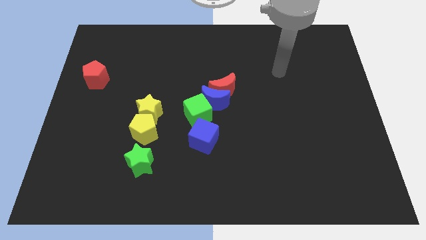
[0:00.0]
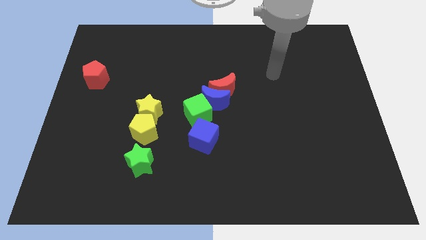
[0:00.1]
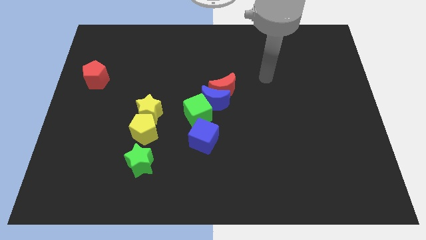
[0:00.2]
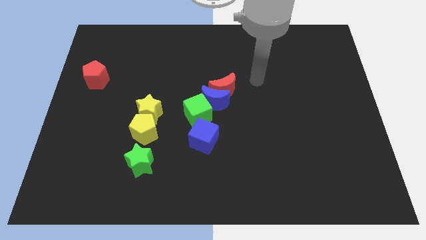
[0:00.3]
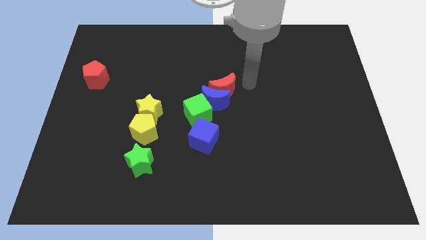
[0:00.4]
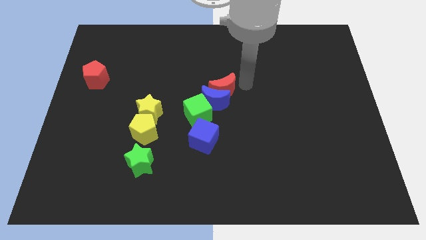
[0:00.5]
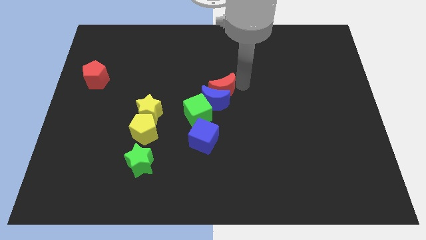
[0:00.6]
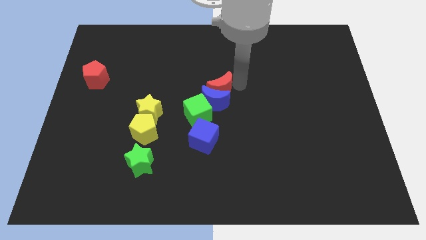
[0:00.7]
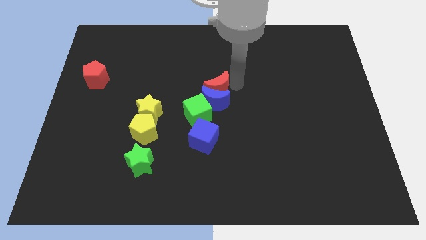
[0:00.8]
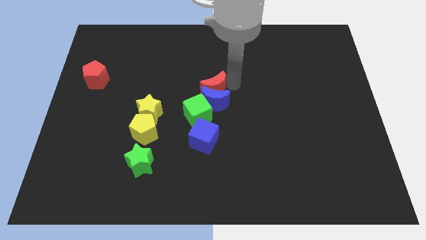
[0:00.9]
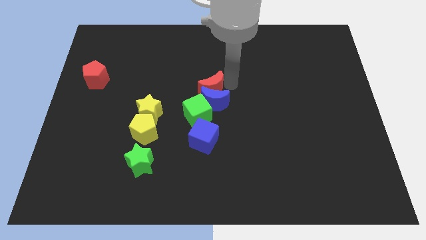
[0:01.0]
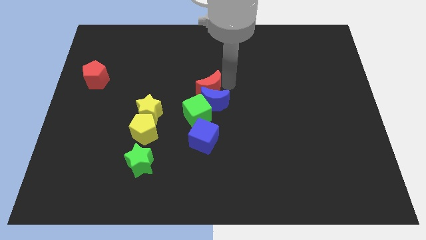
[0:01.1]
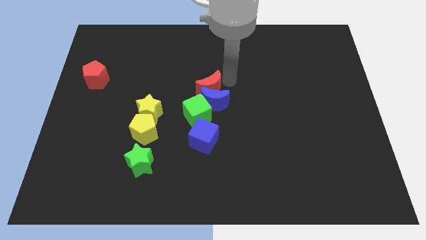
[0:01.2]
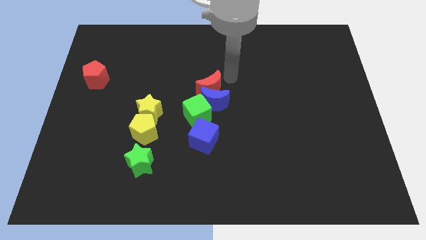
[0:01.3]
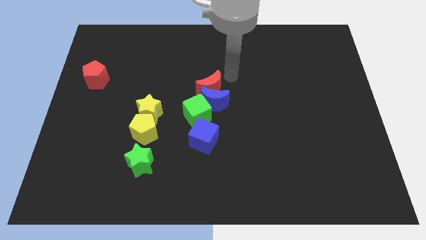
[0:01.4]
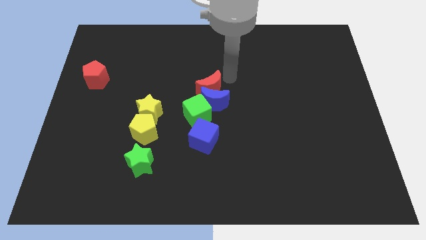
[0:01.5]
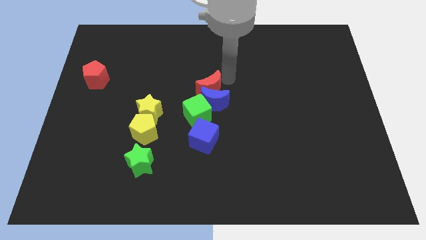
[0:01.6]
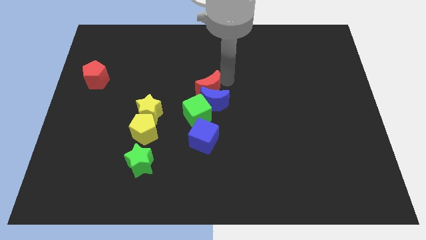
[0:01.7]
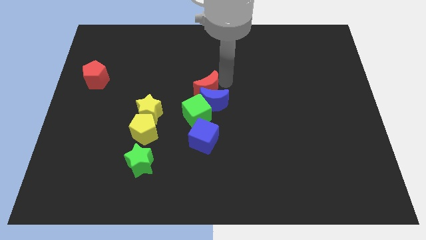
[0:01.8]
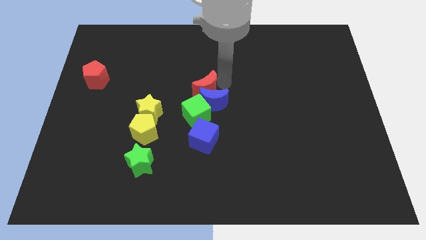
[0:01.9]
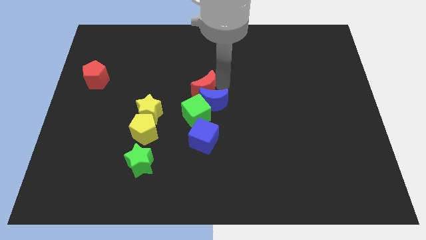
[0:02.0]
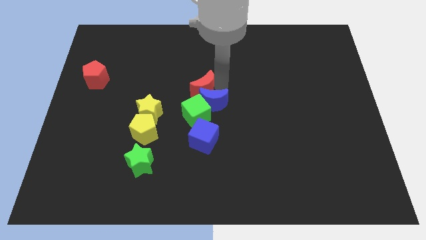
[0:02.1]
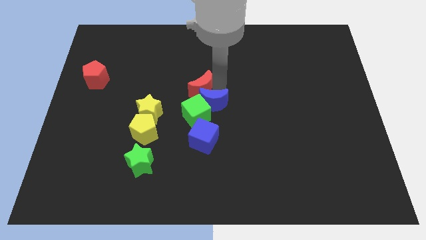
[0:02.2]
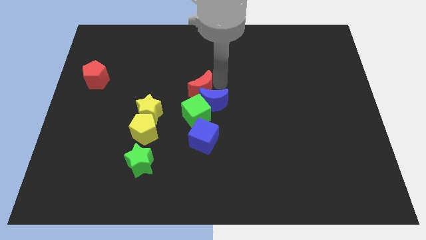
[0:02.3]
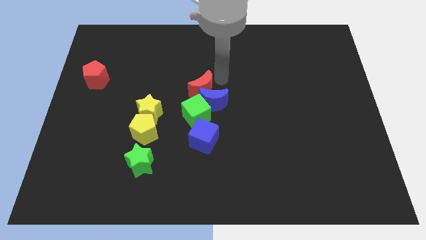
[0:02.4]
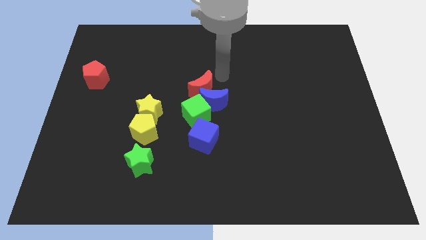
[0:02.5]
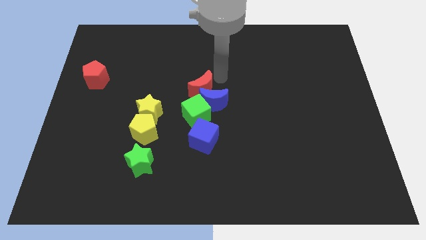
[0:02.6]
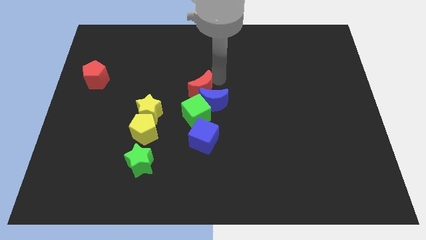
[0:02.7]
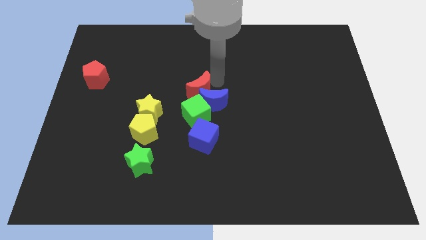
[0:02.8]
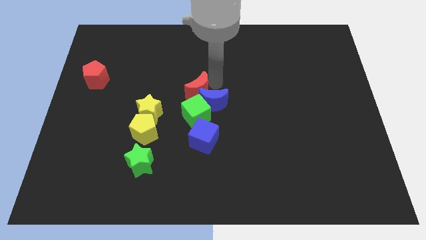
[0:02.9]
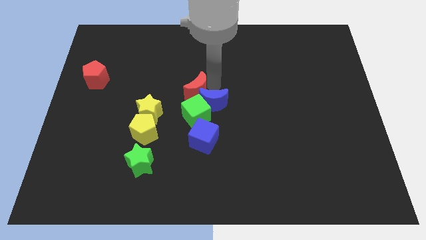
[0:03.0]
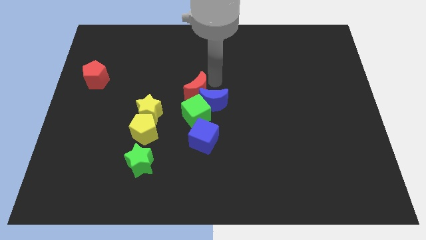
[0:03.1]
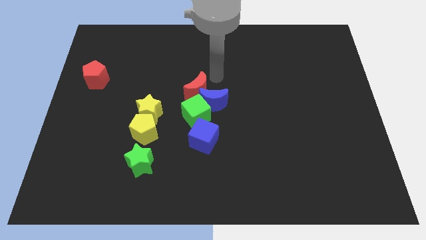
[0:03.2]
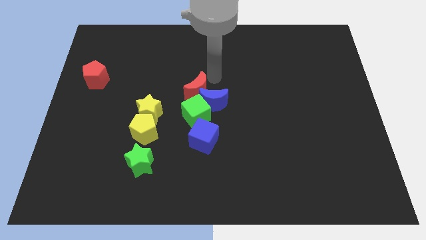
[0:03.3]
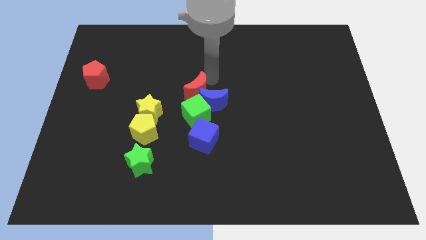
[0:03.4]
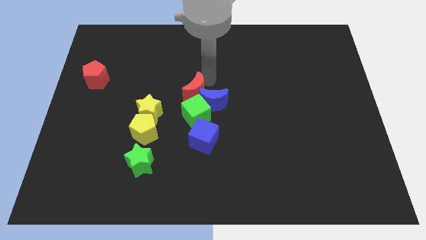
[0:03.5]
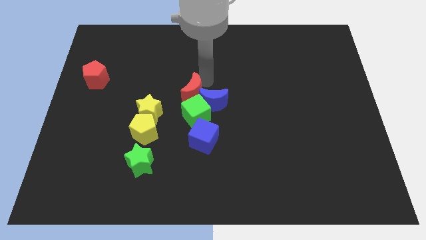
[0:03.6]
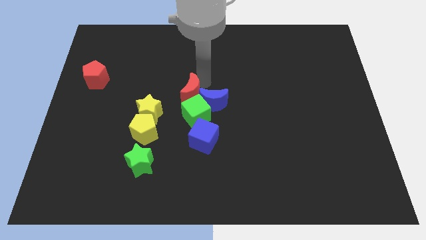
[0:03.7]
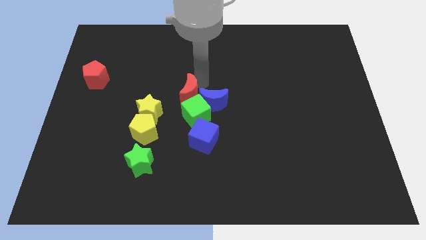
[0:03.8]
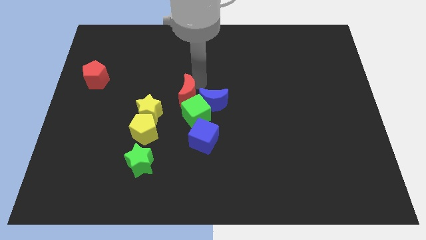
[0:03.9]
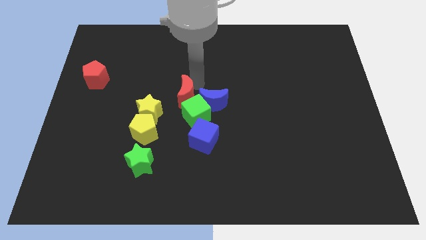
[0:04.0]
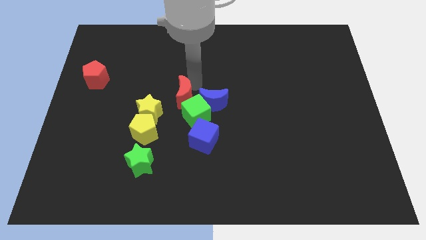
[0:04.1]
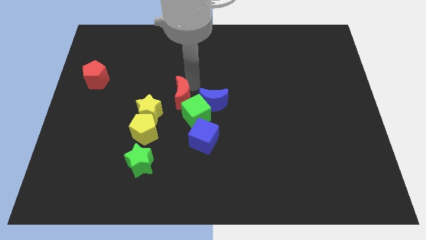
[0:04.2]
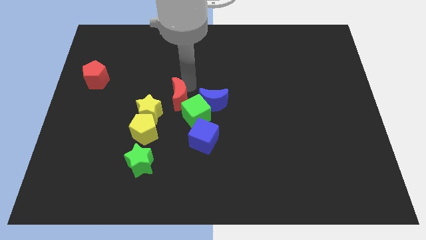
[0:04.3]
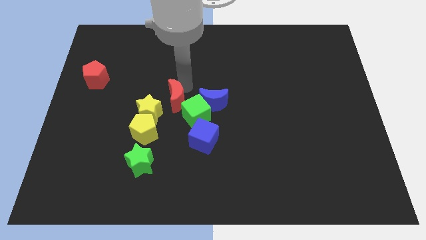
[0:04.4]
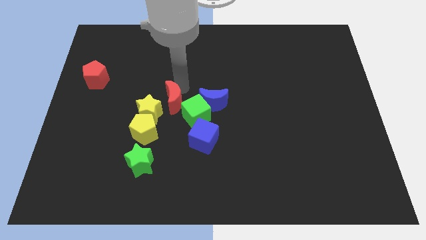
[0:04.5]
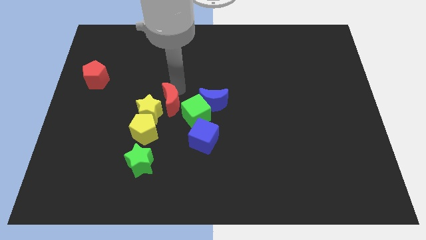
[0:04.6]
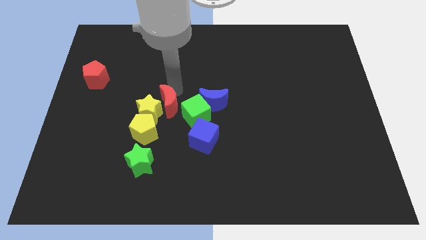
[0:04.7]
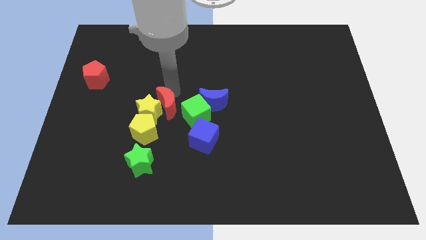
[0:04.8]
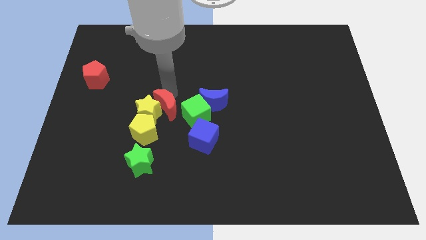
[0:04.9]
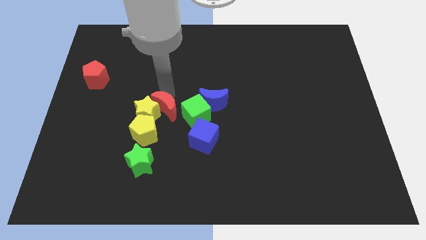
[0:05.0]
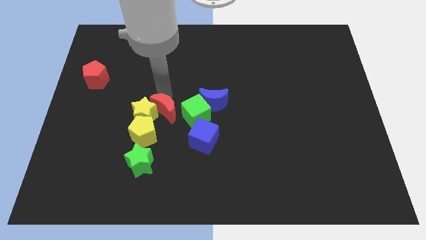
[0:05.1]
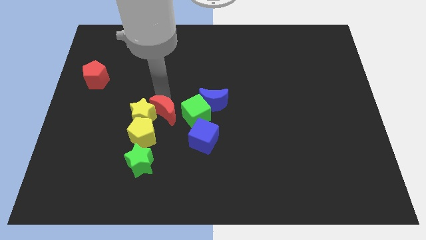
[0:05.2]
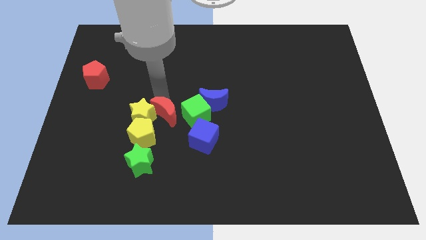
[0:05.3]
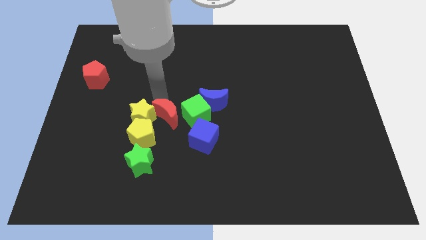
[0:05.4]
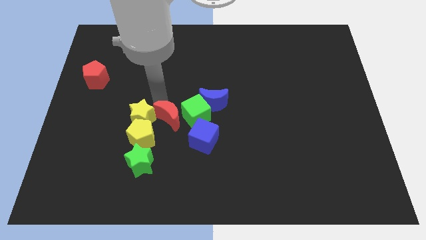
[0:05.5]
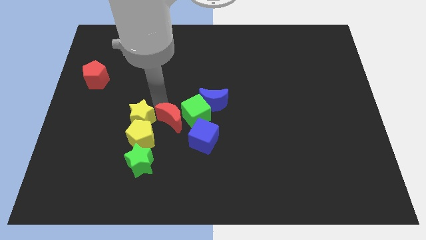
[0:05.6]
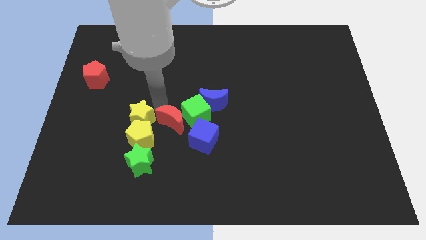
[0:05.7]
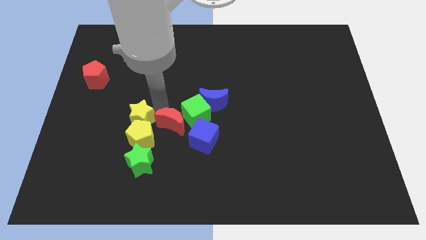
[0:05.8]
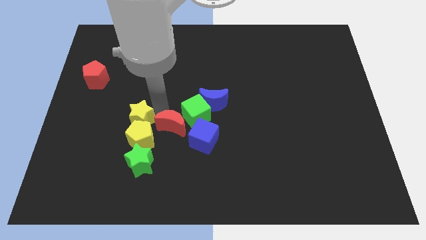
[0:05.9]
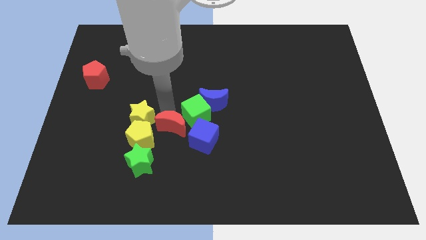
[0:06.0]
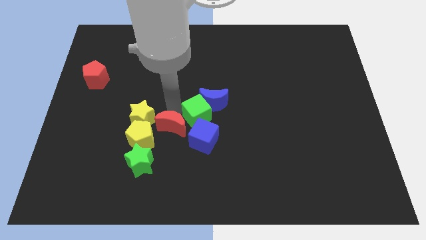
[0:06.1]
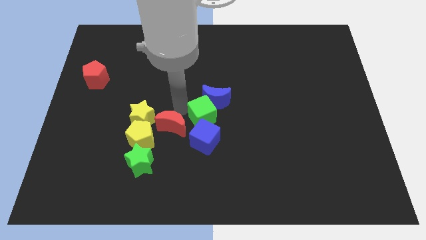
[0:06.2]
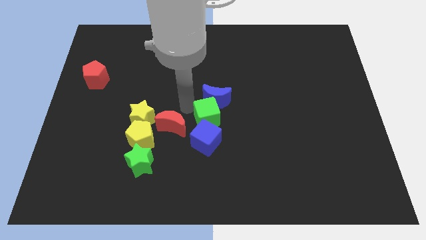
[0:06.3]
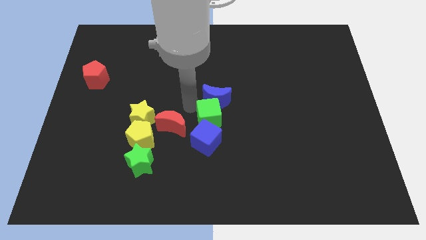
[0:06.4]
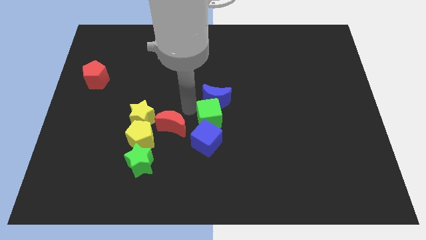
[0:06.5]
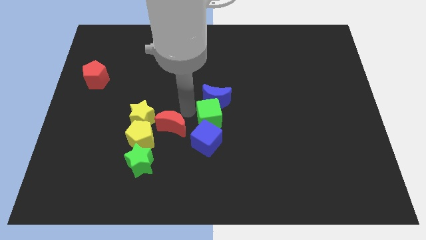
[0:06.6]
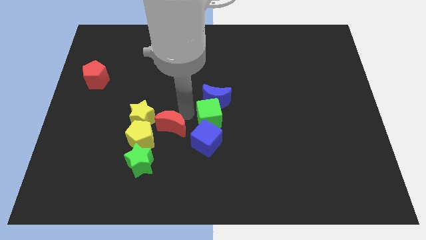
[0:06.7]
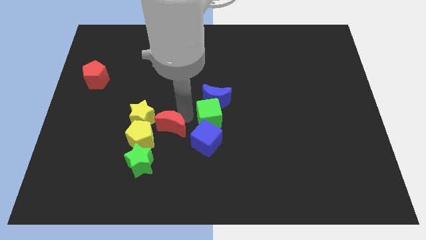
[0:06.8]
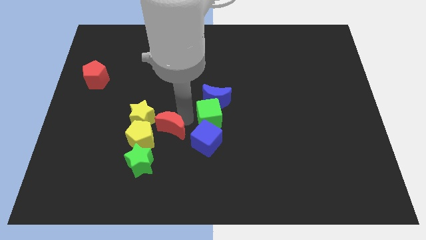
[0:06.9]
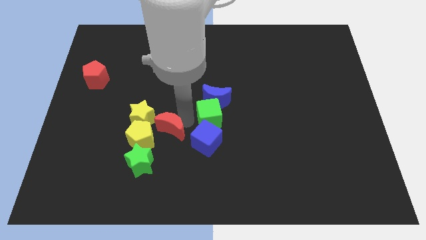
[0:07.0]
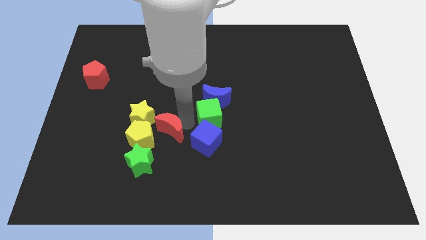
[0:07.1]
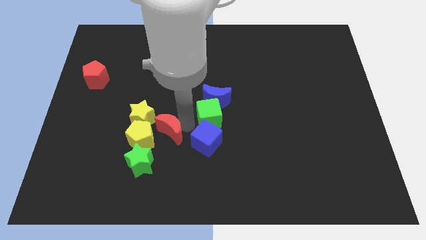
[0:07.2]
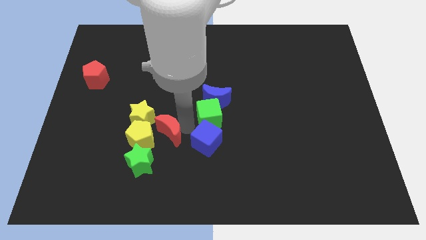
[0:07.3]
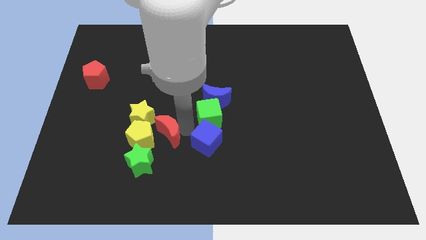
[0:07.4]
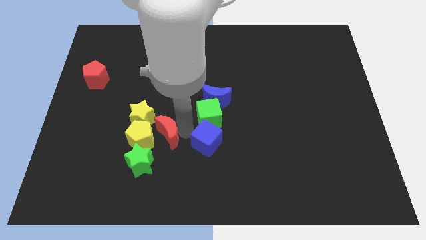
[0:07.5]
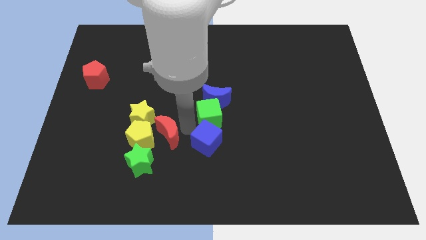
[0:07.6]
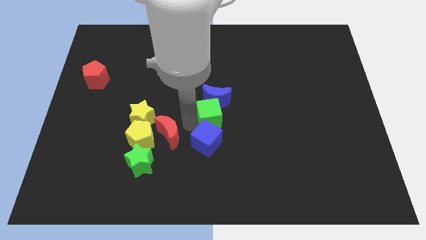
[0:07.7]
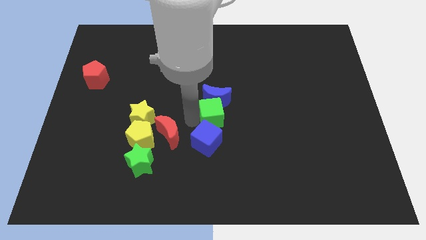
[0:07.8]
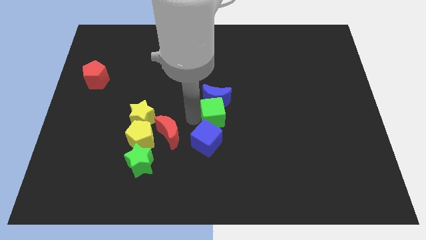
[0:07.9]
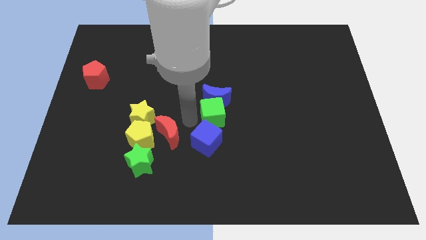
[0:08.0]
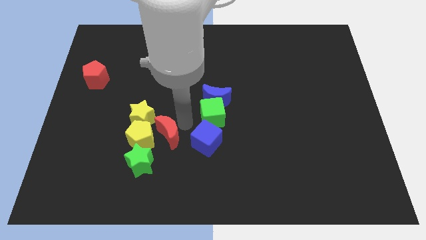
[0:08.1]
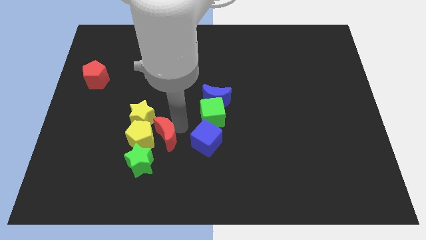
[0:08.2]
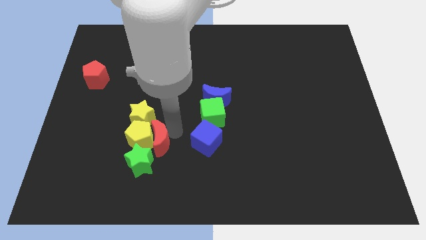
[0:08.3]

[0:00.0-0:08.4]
slide the red moon down and left diagonally
